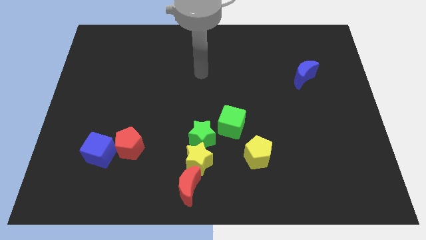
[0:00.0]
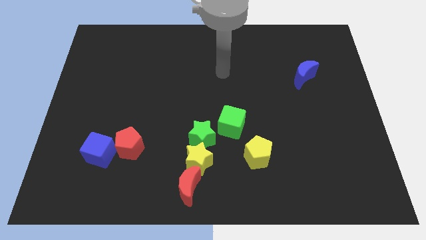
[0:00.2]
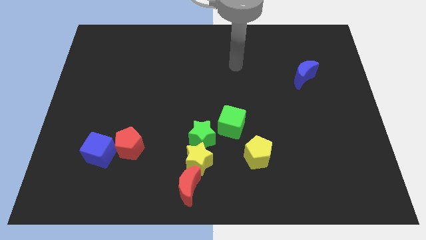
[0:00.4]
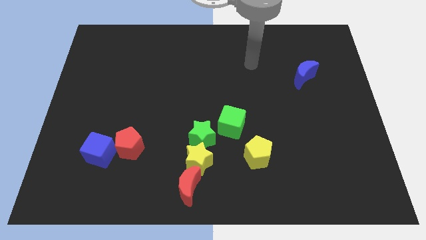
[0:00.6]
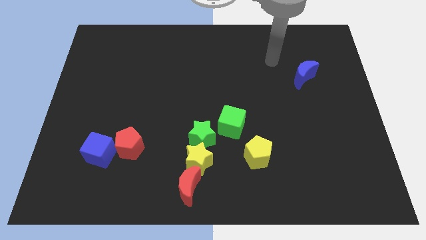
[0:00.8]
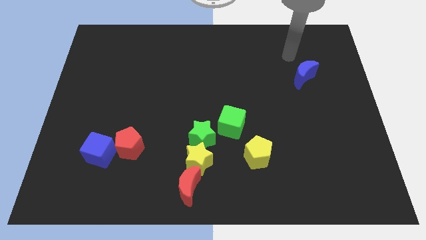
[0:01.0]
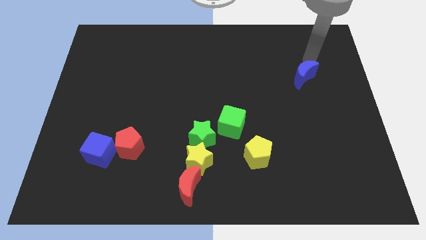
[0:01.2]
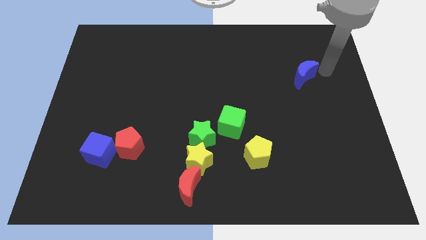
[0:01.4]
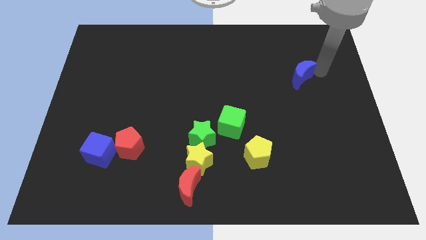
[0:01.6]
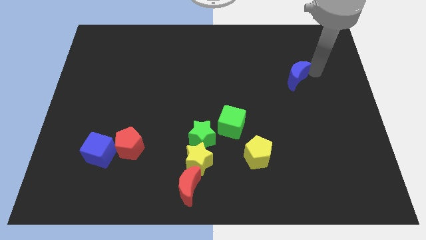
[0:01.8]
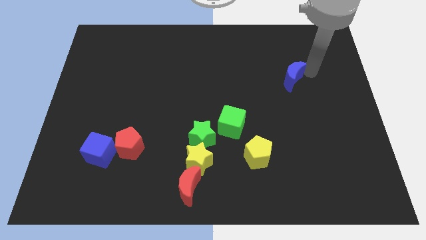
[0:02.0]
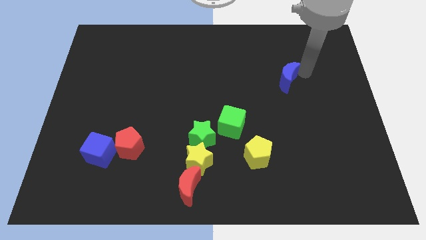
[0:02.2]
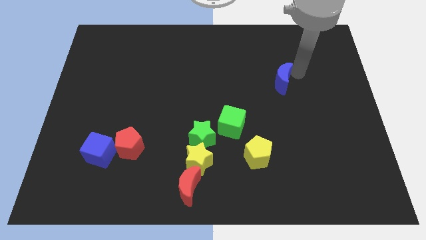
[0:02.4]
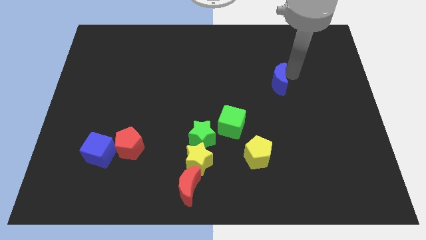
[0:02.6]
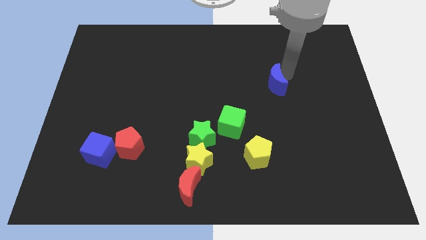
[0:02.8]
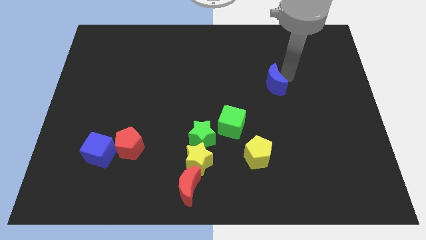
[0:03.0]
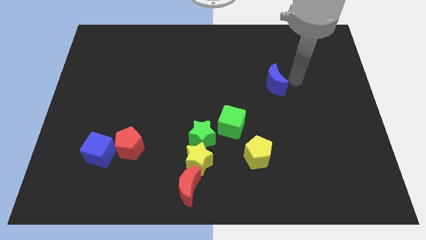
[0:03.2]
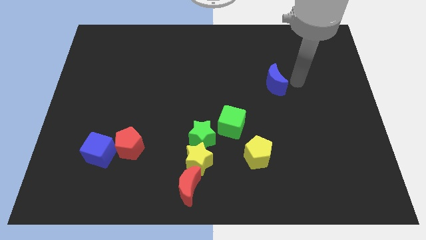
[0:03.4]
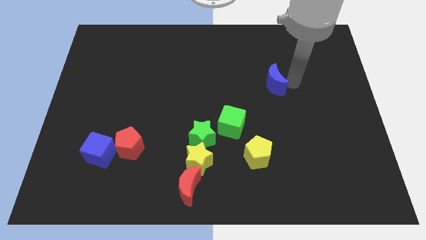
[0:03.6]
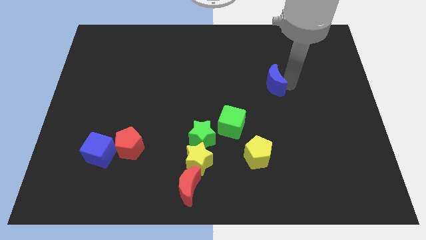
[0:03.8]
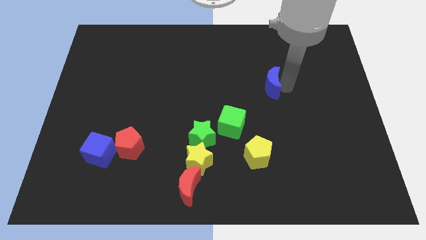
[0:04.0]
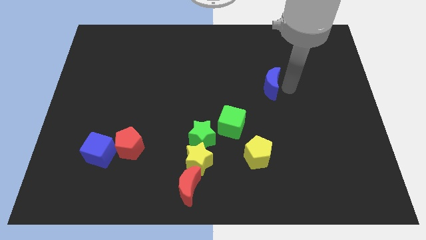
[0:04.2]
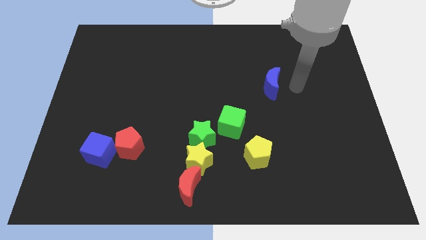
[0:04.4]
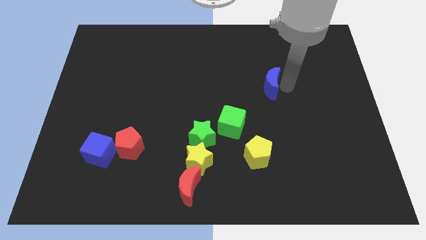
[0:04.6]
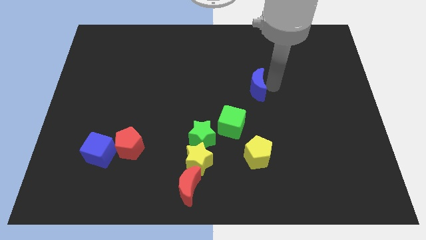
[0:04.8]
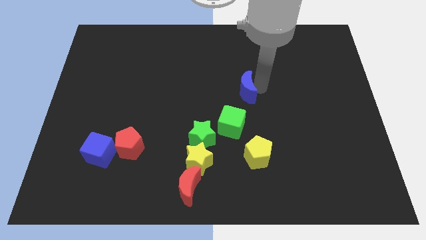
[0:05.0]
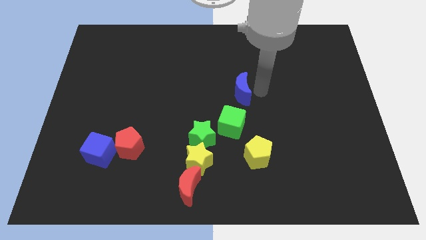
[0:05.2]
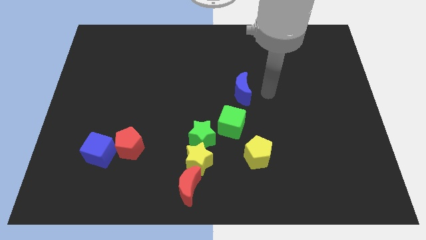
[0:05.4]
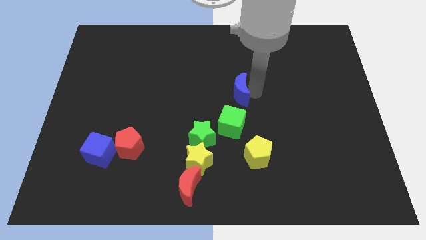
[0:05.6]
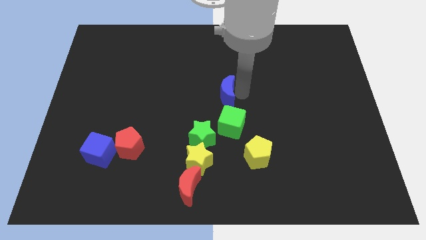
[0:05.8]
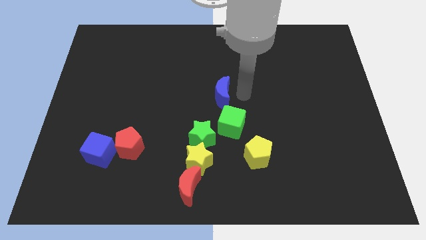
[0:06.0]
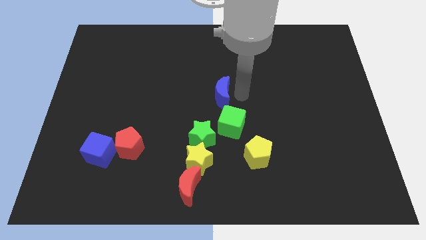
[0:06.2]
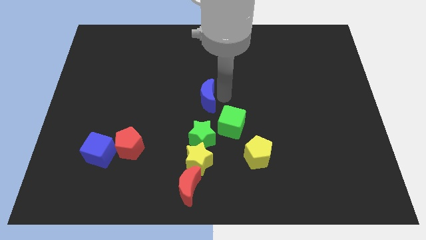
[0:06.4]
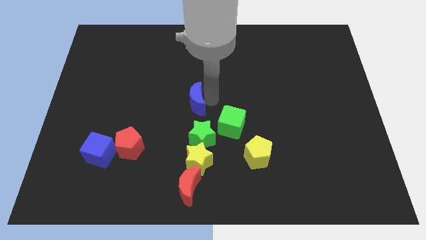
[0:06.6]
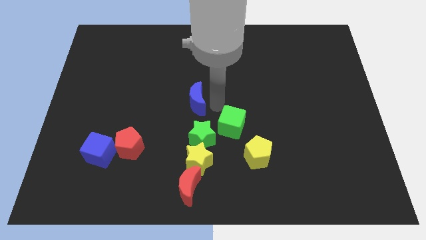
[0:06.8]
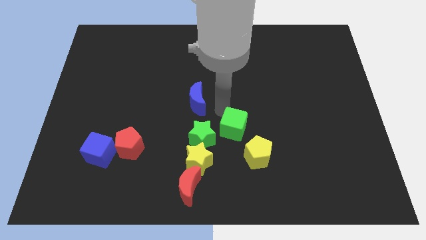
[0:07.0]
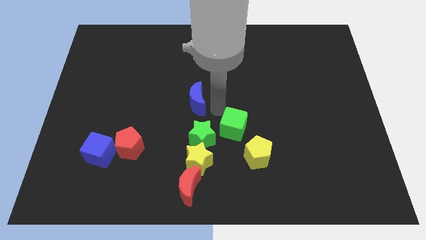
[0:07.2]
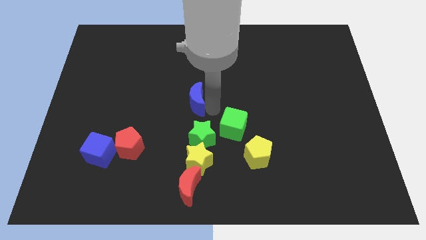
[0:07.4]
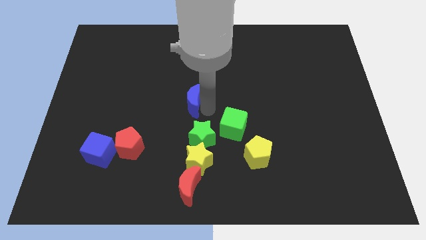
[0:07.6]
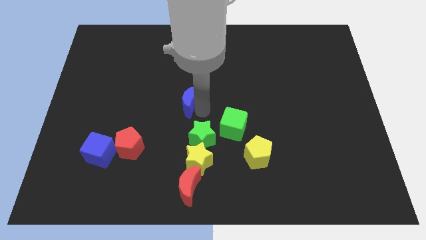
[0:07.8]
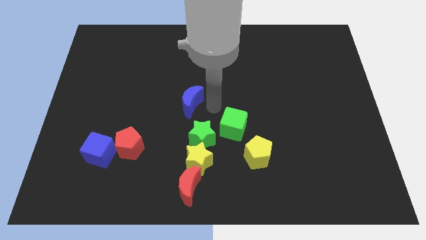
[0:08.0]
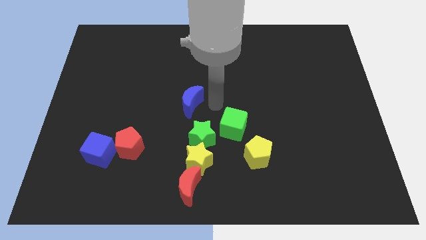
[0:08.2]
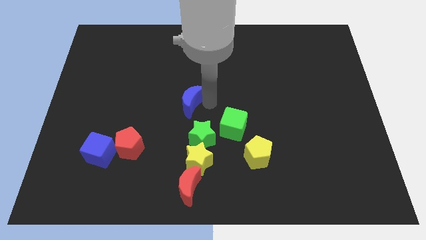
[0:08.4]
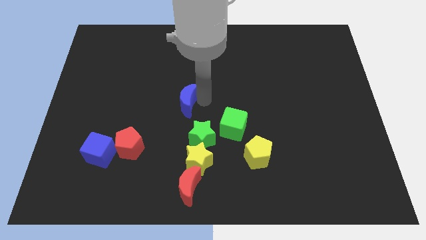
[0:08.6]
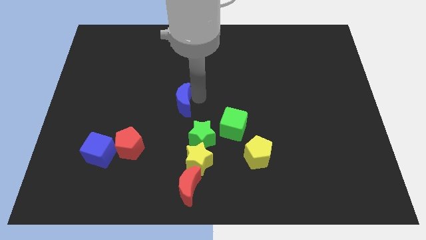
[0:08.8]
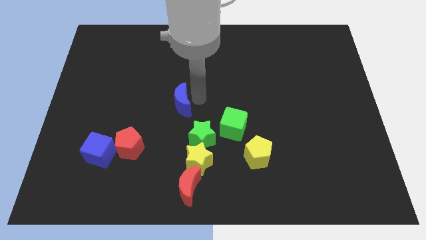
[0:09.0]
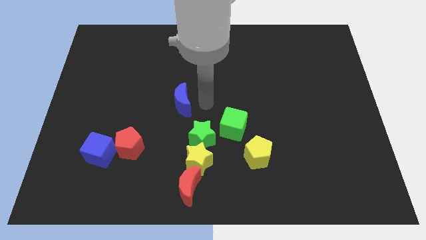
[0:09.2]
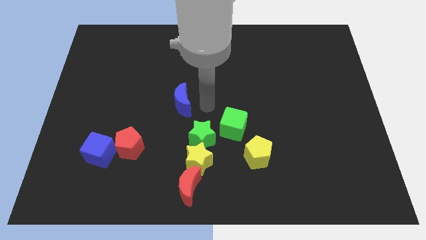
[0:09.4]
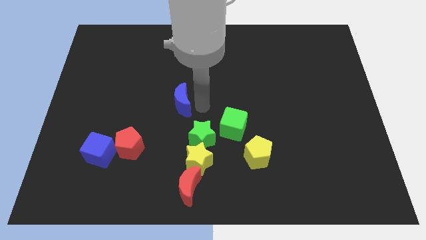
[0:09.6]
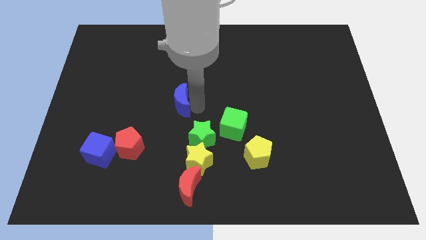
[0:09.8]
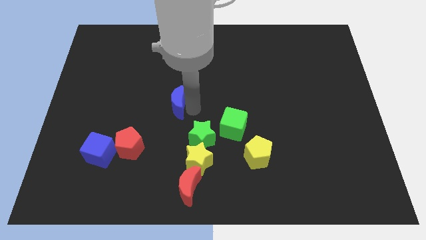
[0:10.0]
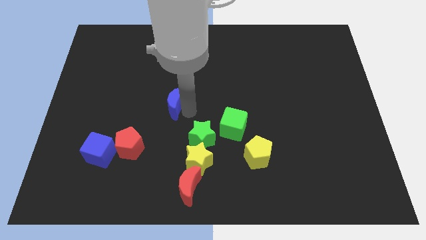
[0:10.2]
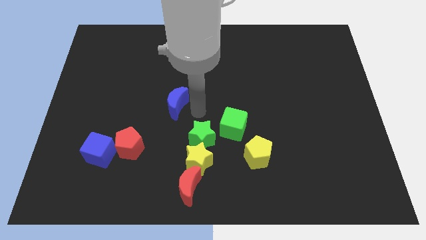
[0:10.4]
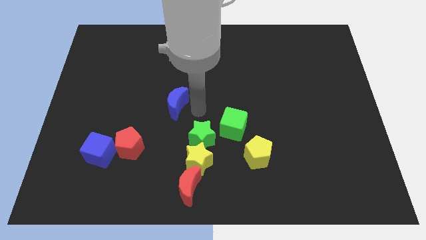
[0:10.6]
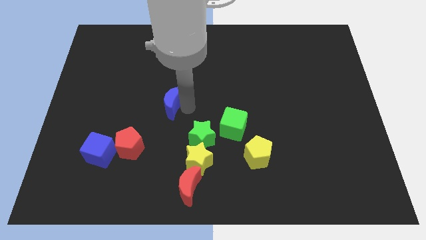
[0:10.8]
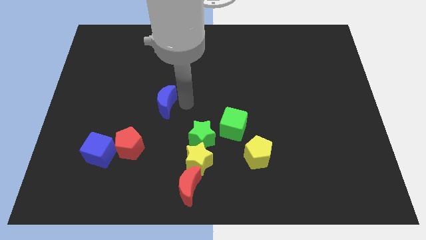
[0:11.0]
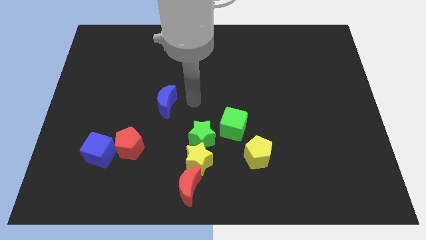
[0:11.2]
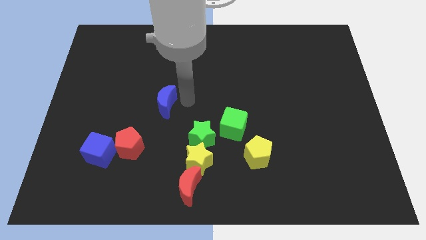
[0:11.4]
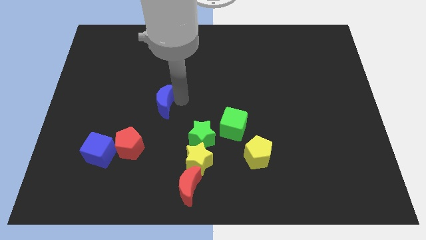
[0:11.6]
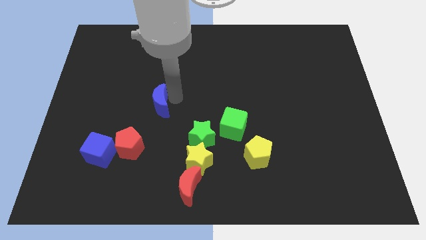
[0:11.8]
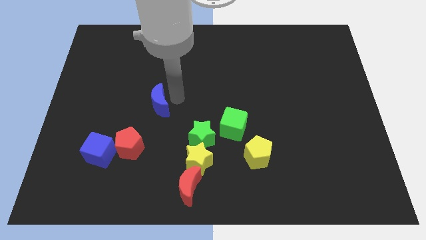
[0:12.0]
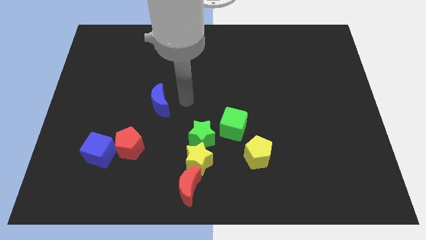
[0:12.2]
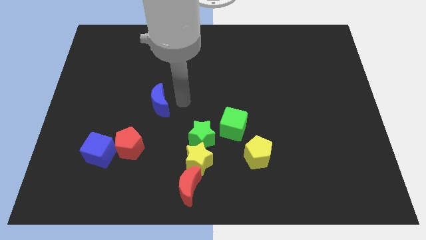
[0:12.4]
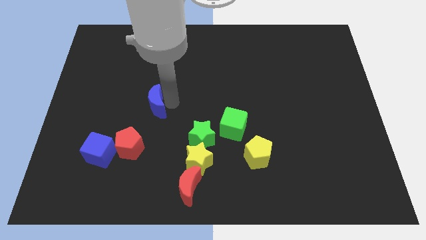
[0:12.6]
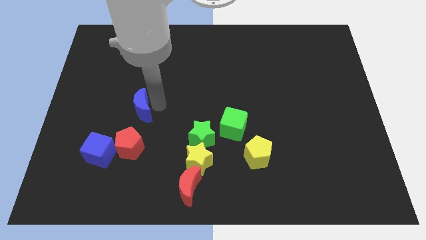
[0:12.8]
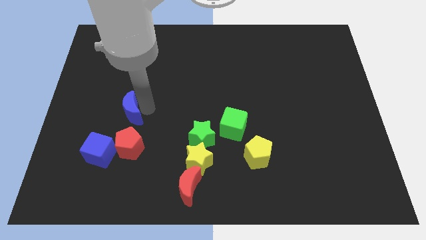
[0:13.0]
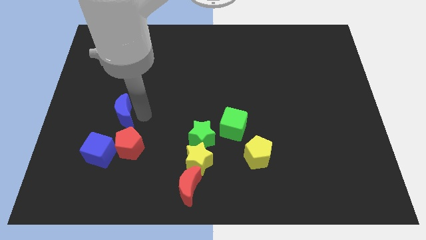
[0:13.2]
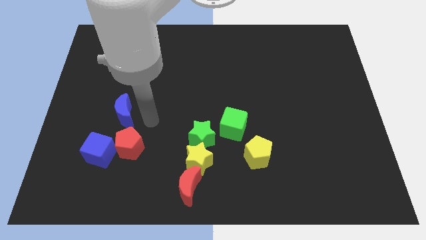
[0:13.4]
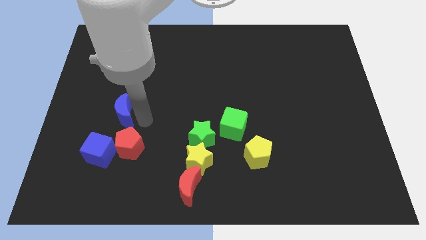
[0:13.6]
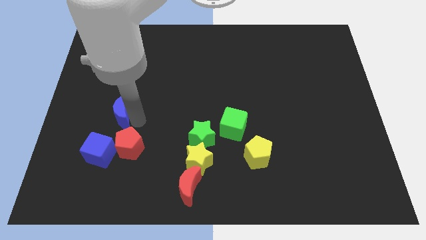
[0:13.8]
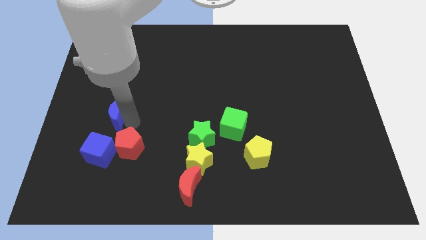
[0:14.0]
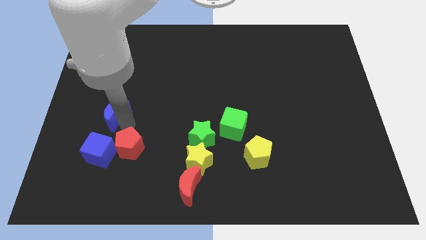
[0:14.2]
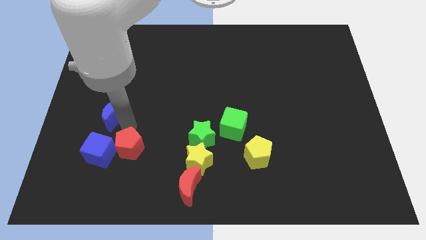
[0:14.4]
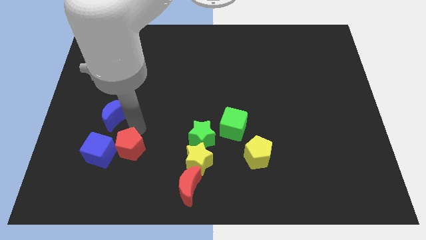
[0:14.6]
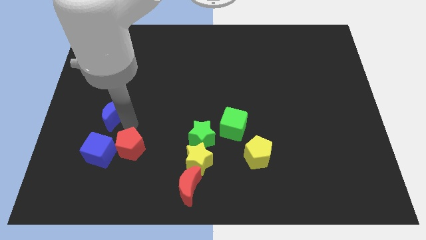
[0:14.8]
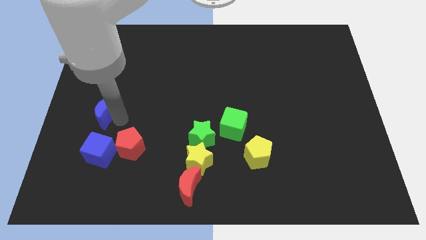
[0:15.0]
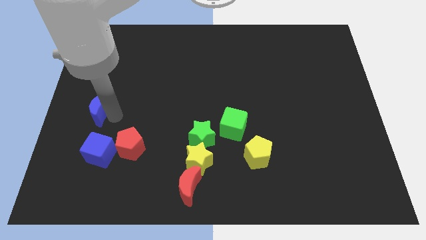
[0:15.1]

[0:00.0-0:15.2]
slide the blue moon to the left side of the board
